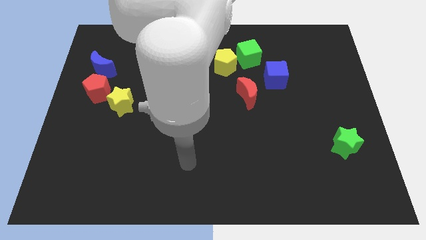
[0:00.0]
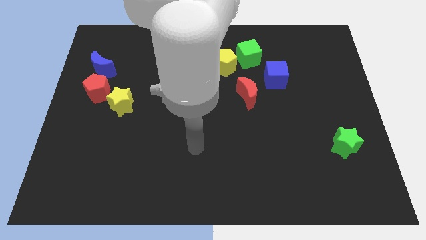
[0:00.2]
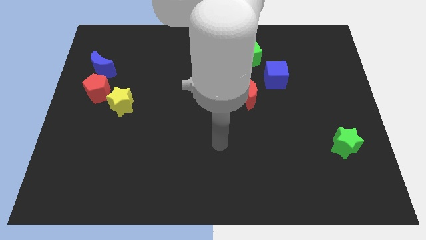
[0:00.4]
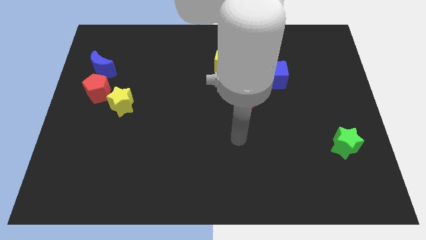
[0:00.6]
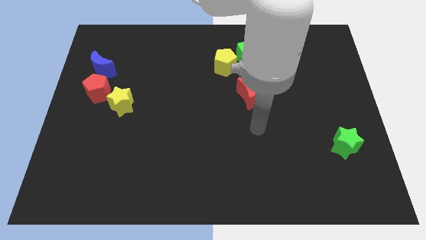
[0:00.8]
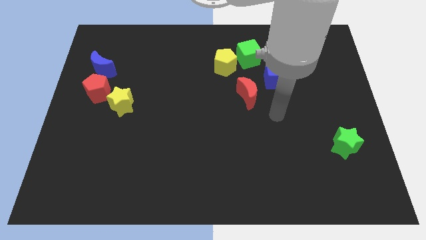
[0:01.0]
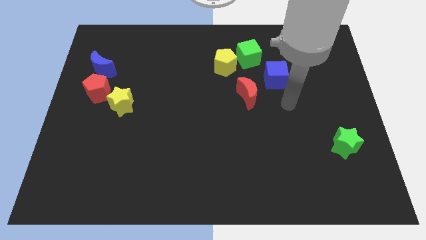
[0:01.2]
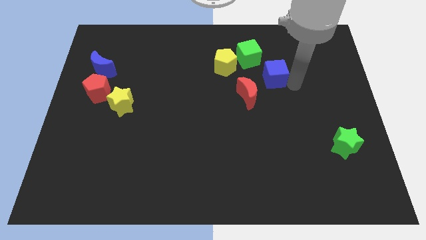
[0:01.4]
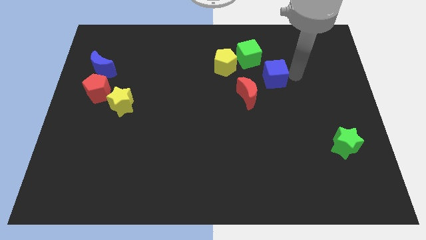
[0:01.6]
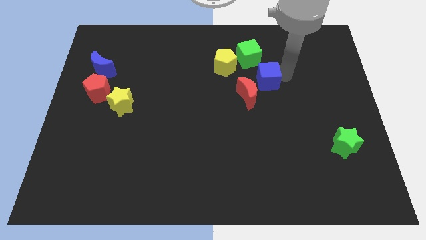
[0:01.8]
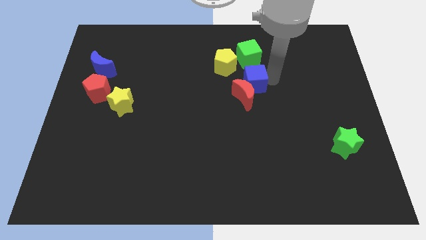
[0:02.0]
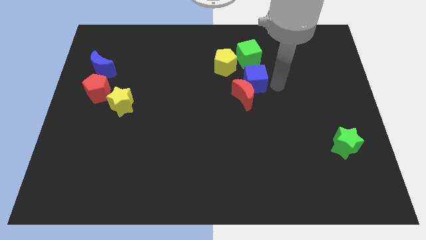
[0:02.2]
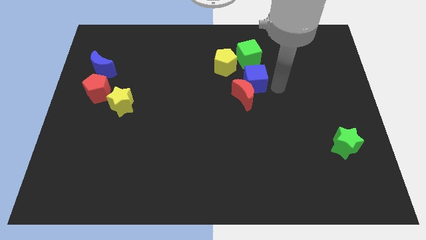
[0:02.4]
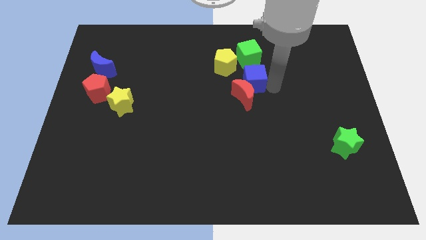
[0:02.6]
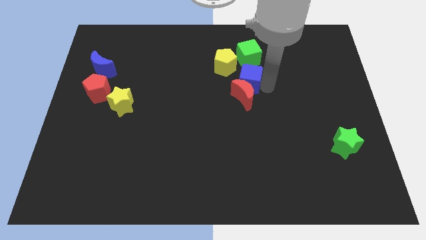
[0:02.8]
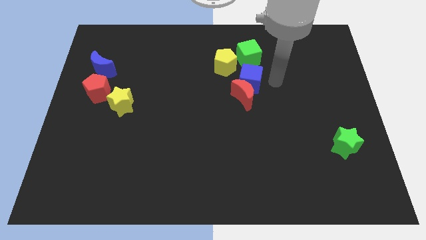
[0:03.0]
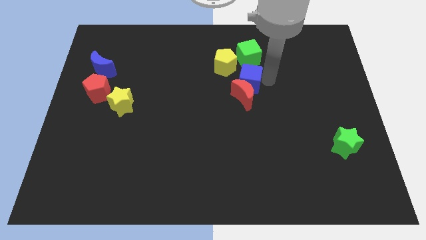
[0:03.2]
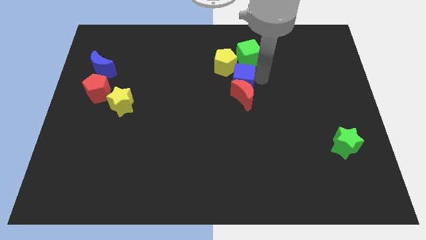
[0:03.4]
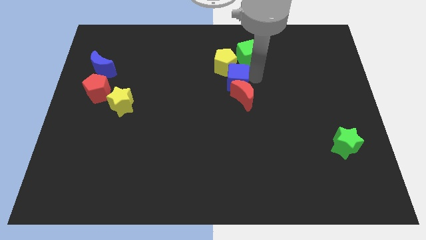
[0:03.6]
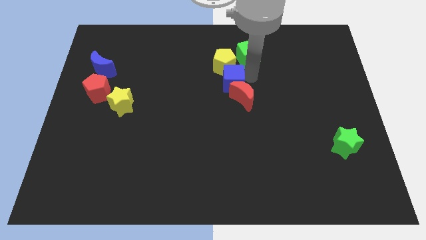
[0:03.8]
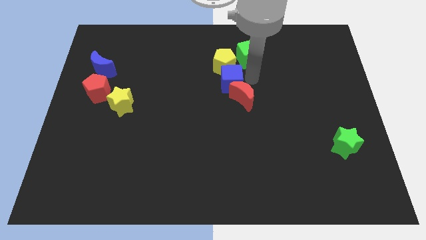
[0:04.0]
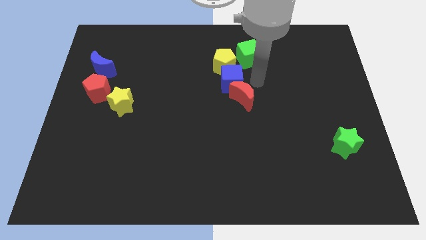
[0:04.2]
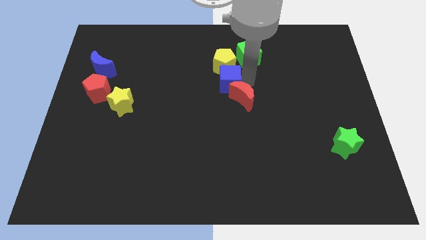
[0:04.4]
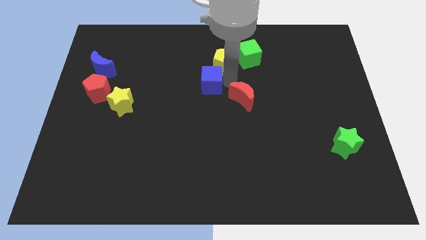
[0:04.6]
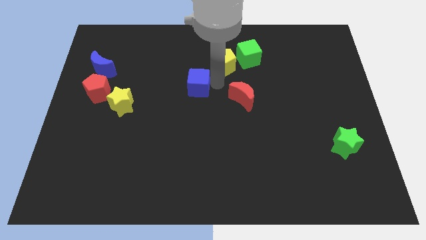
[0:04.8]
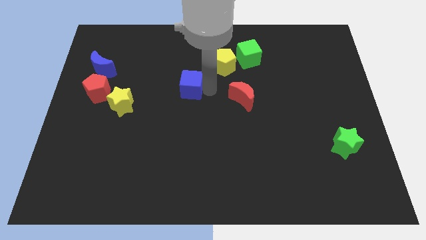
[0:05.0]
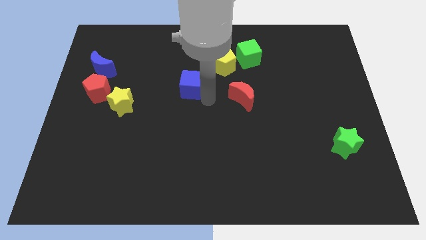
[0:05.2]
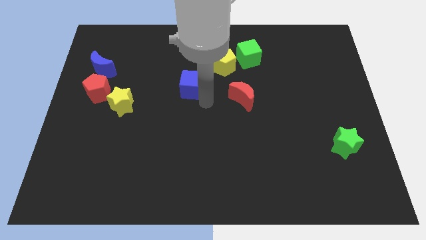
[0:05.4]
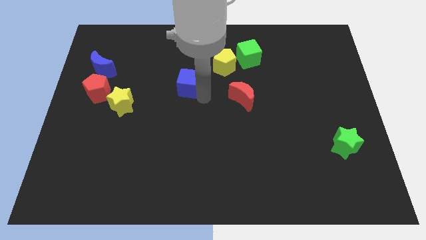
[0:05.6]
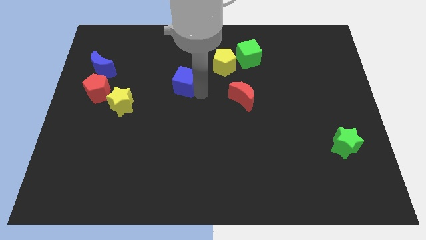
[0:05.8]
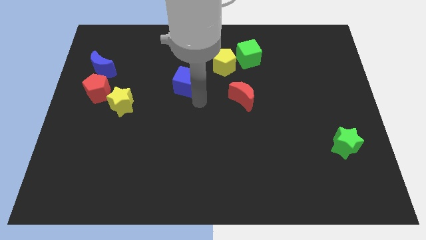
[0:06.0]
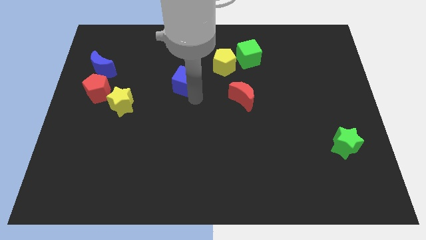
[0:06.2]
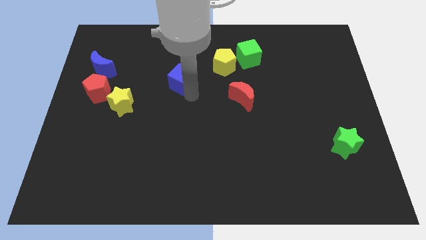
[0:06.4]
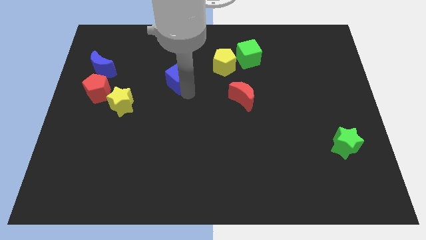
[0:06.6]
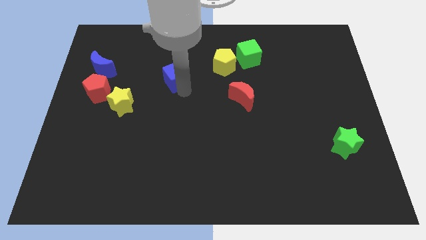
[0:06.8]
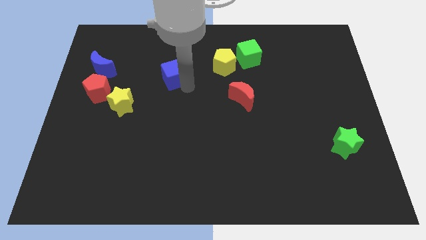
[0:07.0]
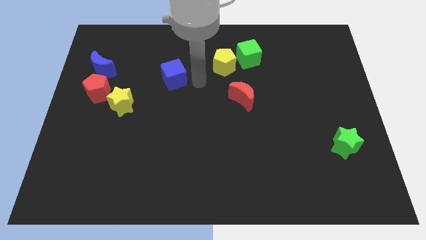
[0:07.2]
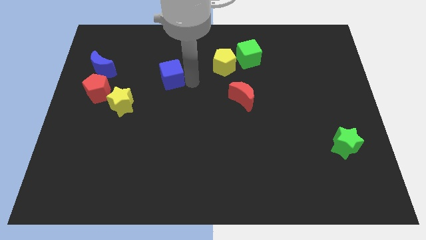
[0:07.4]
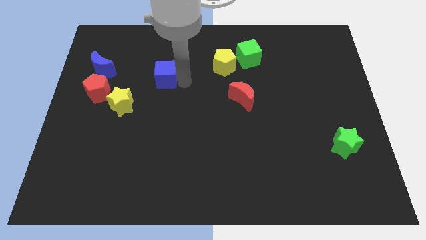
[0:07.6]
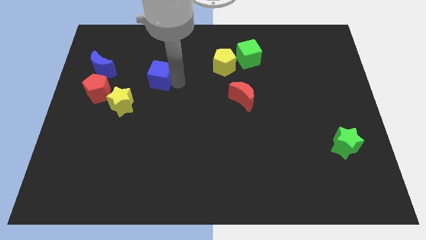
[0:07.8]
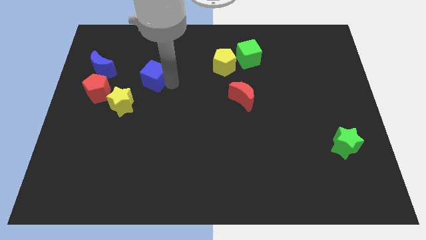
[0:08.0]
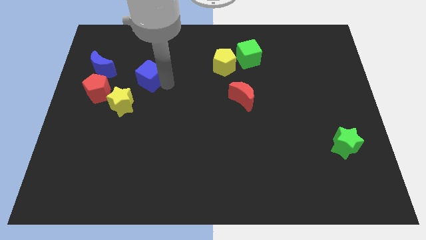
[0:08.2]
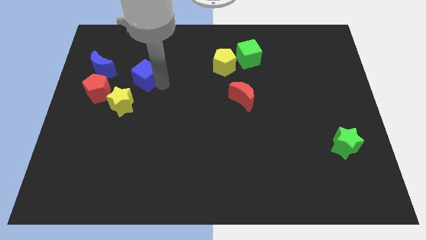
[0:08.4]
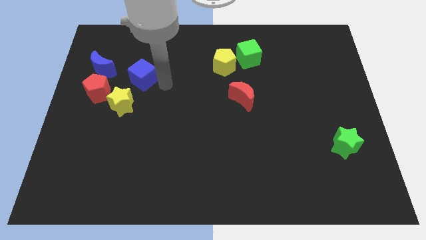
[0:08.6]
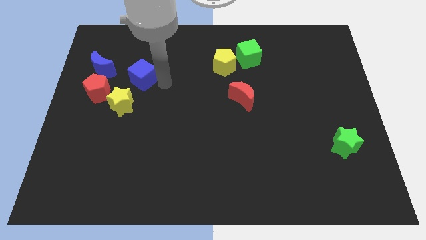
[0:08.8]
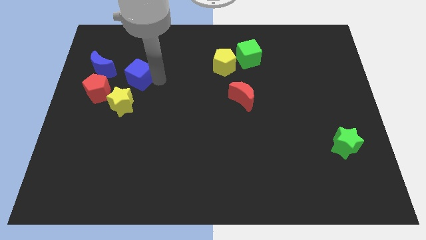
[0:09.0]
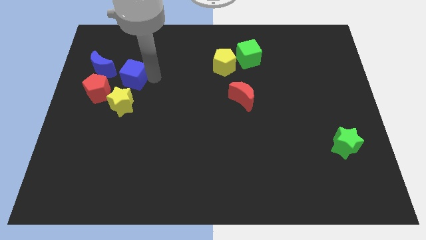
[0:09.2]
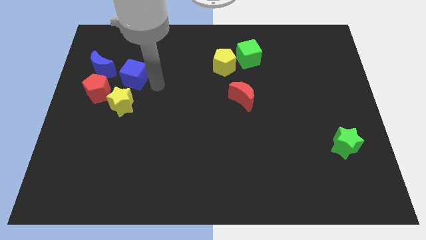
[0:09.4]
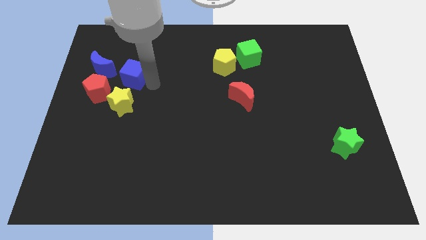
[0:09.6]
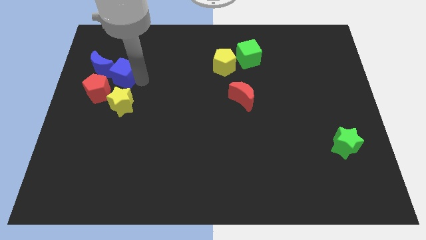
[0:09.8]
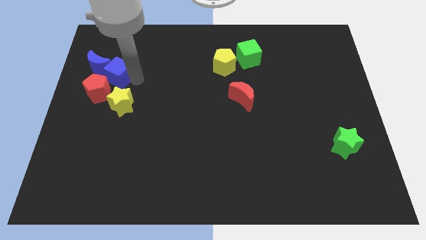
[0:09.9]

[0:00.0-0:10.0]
move the blue cube next to the blue moon

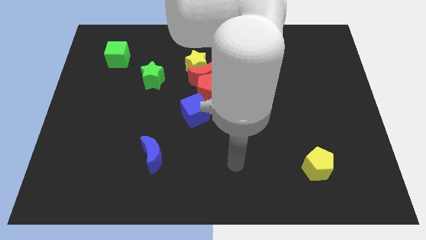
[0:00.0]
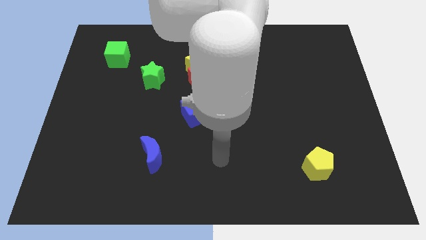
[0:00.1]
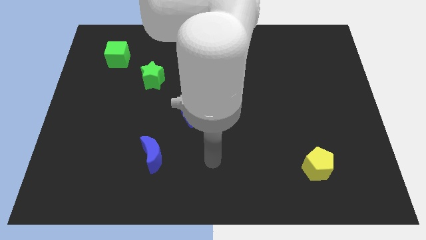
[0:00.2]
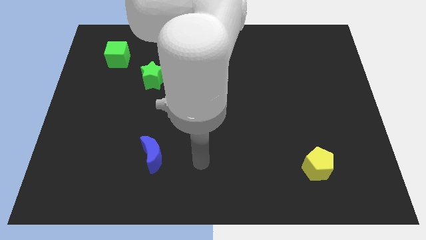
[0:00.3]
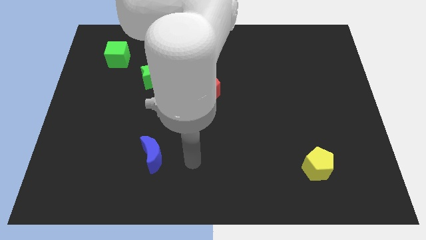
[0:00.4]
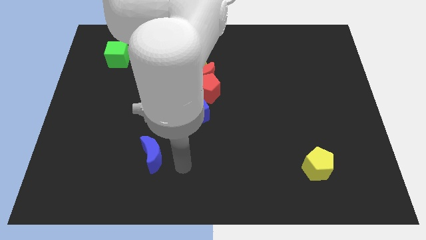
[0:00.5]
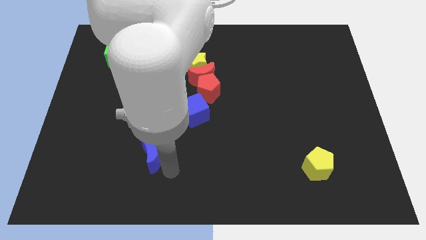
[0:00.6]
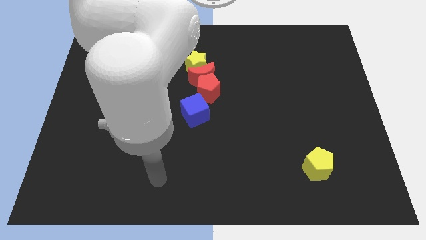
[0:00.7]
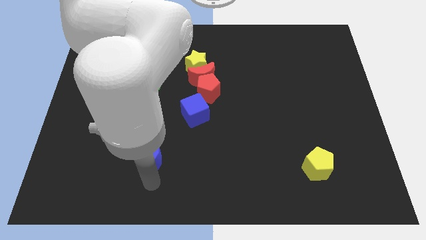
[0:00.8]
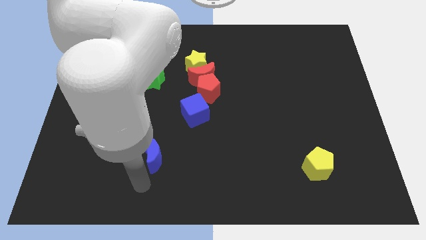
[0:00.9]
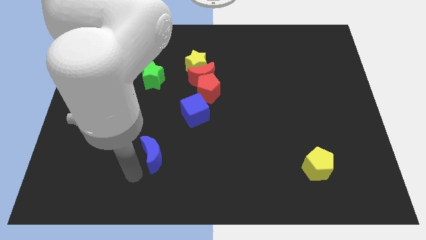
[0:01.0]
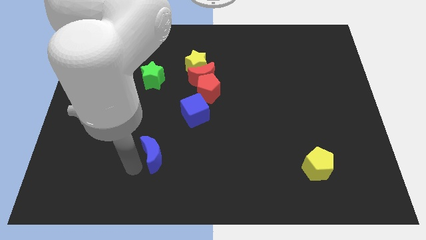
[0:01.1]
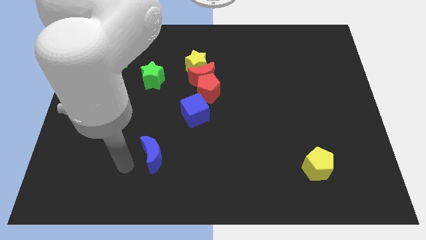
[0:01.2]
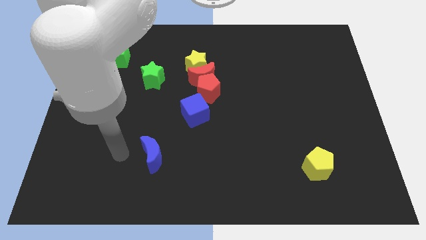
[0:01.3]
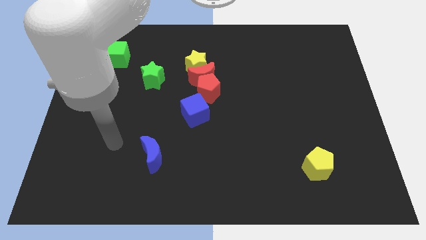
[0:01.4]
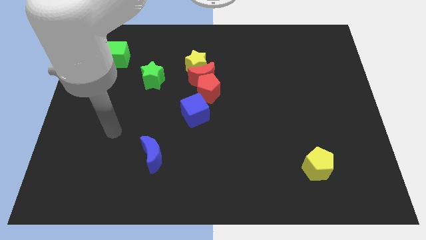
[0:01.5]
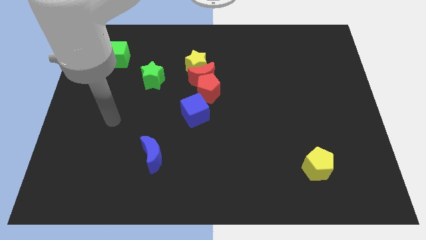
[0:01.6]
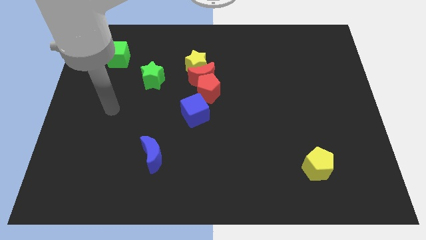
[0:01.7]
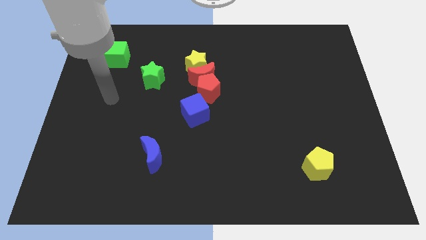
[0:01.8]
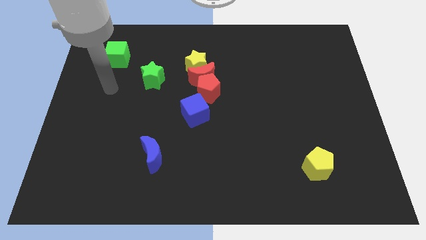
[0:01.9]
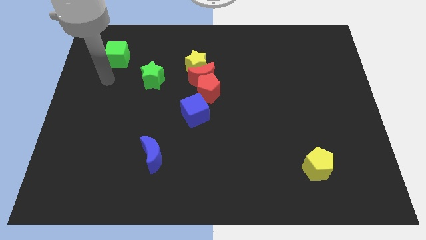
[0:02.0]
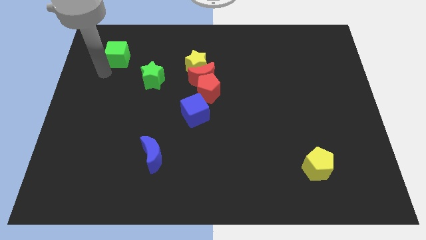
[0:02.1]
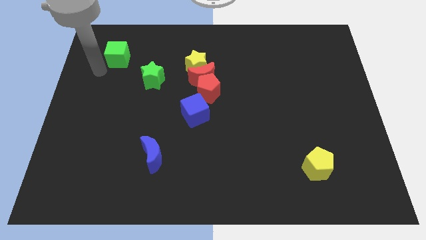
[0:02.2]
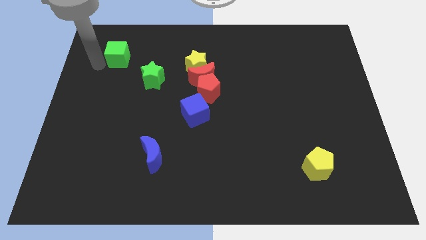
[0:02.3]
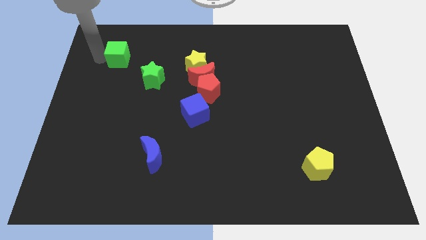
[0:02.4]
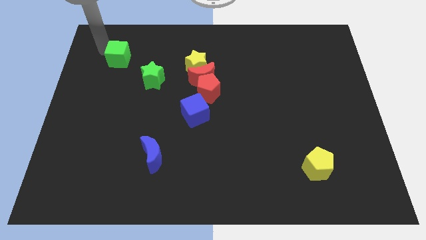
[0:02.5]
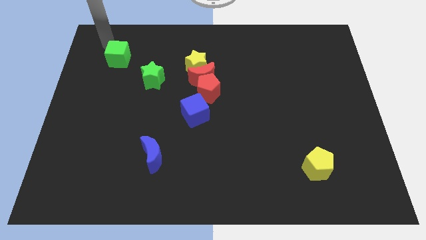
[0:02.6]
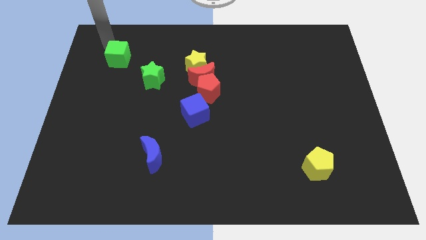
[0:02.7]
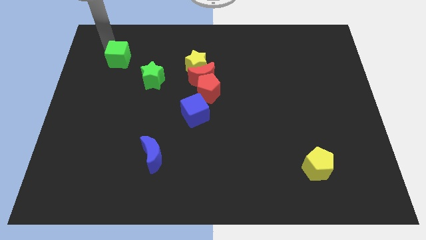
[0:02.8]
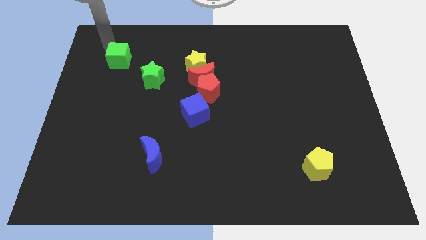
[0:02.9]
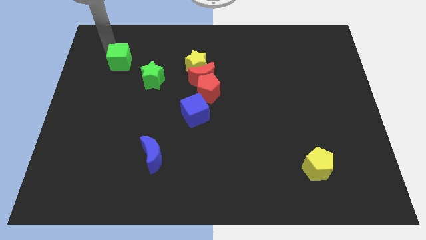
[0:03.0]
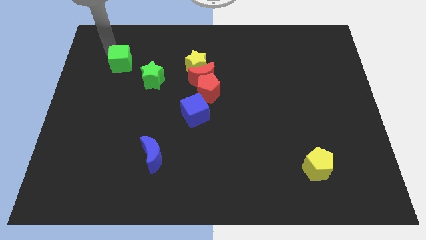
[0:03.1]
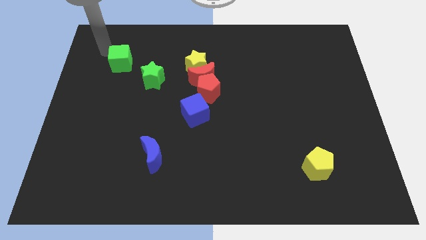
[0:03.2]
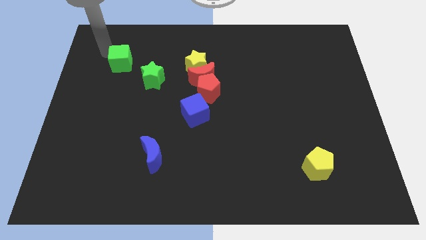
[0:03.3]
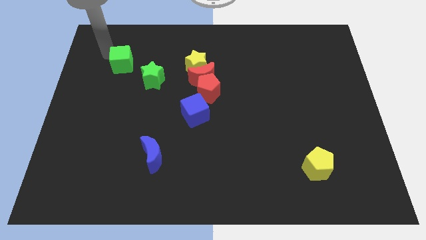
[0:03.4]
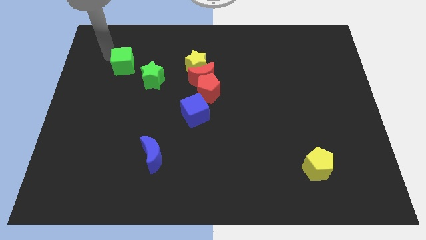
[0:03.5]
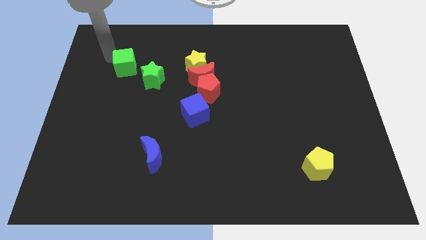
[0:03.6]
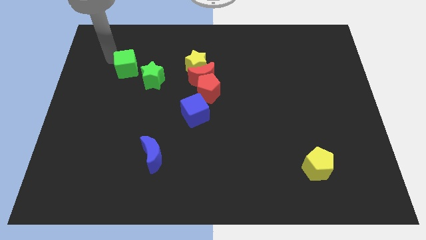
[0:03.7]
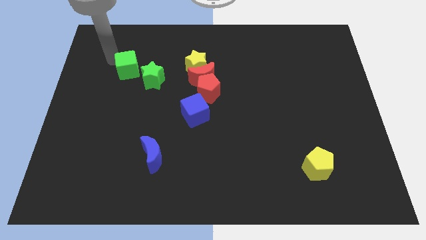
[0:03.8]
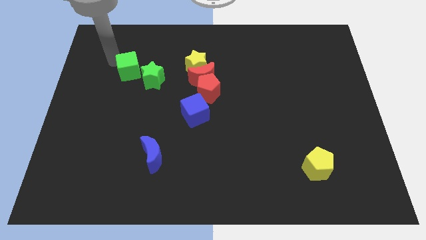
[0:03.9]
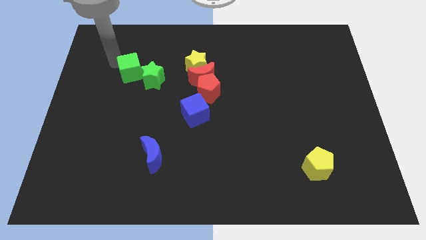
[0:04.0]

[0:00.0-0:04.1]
move the green cube next to the green star
